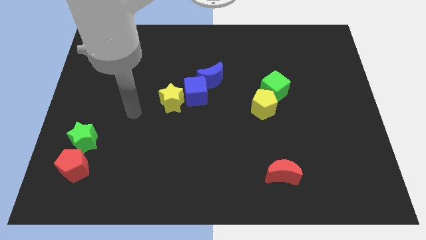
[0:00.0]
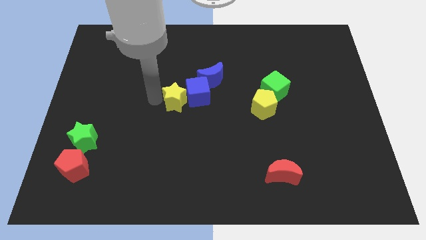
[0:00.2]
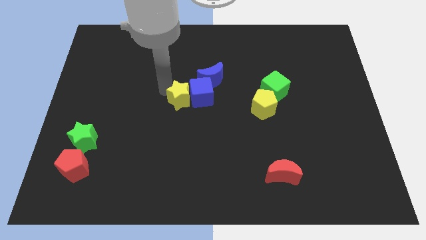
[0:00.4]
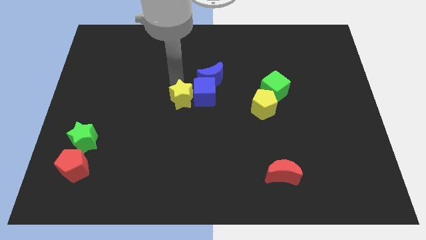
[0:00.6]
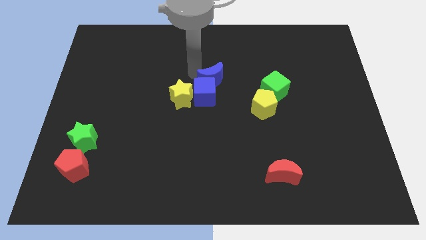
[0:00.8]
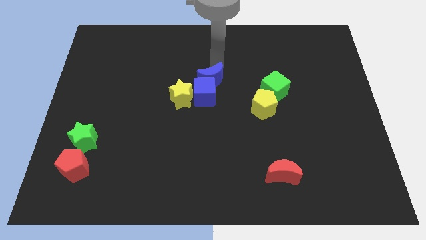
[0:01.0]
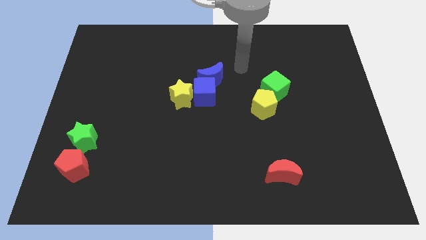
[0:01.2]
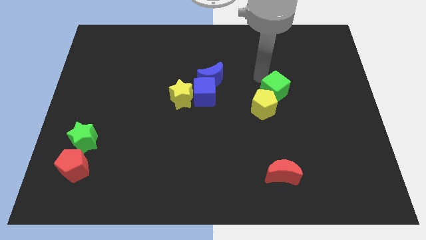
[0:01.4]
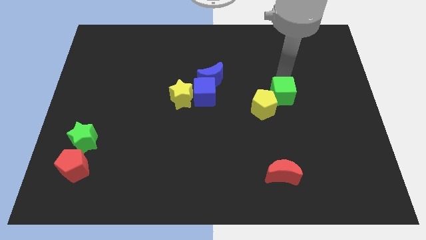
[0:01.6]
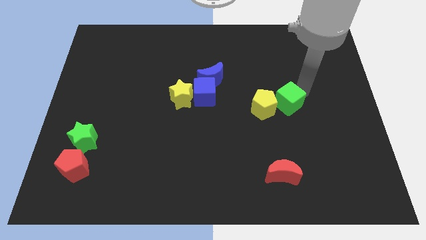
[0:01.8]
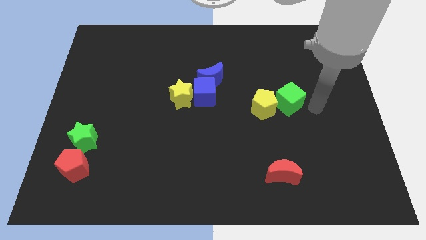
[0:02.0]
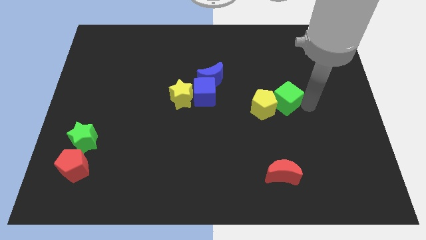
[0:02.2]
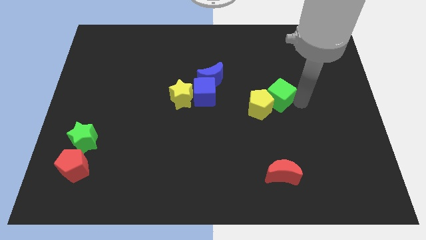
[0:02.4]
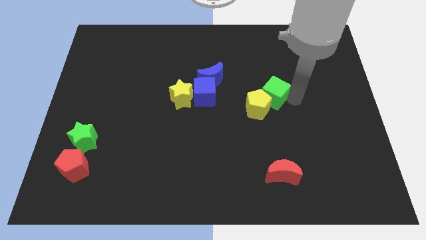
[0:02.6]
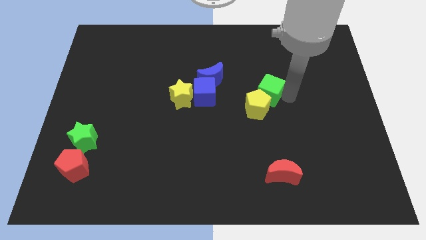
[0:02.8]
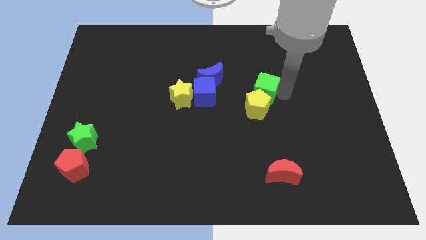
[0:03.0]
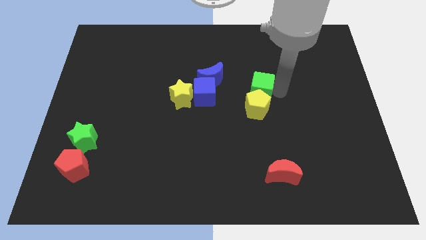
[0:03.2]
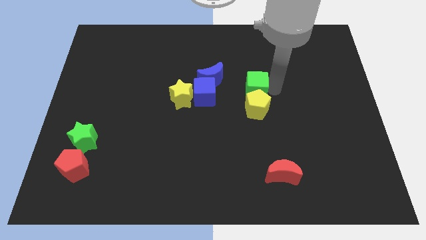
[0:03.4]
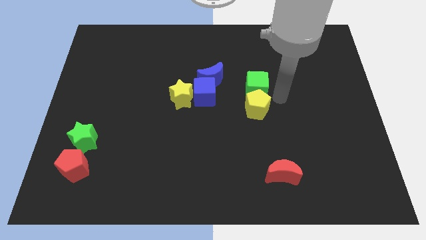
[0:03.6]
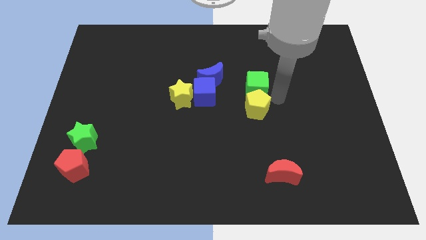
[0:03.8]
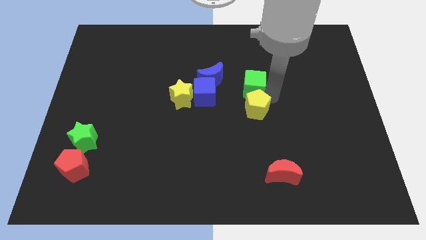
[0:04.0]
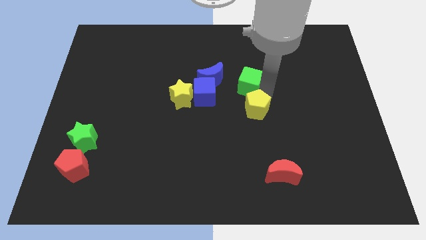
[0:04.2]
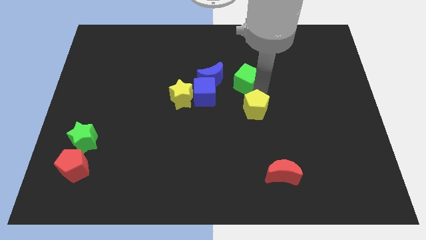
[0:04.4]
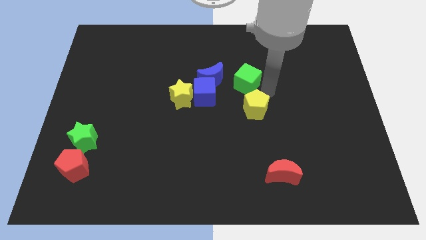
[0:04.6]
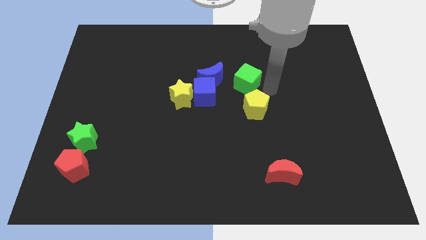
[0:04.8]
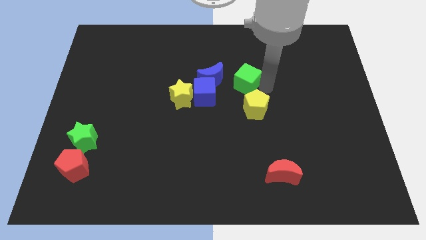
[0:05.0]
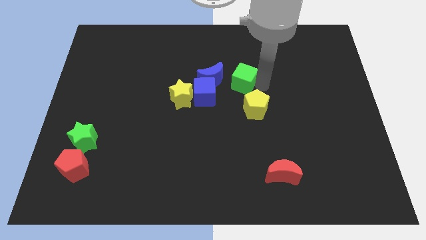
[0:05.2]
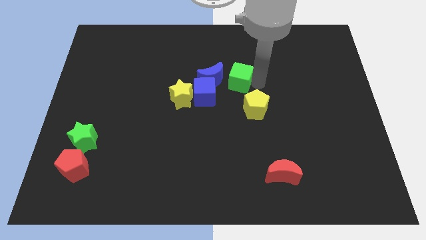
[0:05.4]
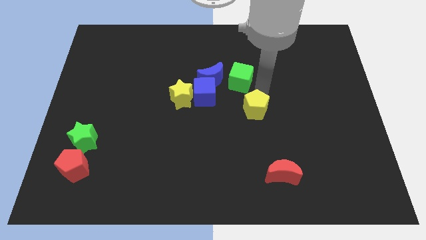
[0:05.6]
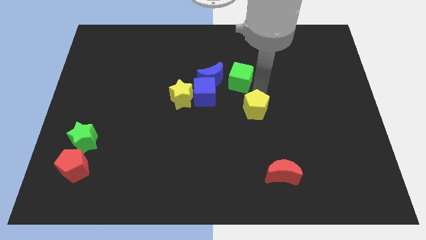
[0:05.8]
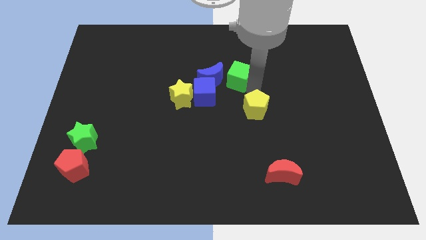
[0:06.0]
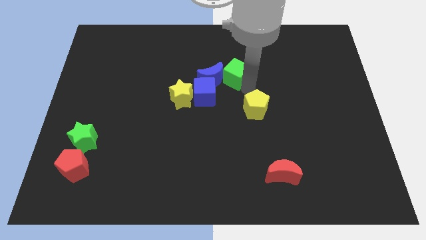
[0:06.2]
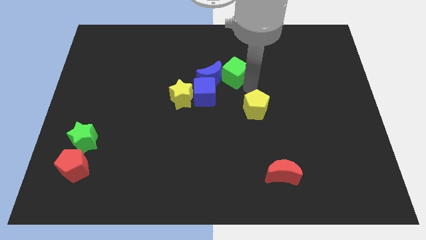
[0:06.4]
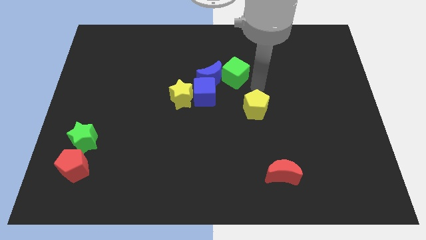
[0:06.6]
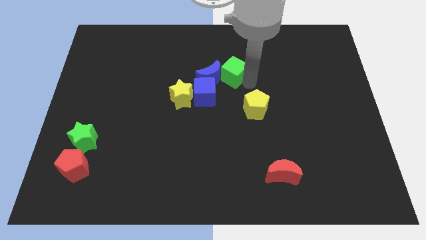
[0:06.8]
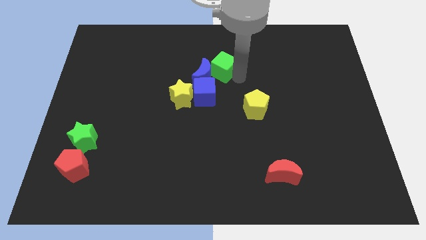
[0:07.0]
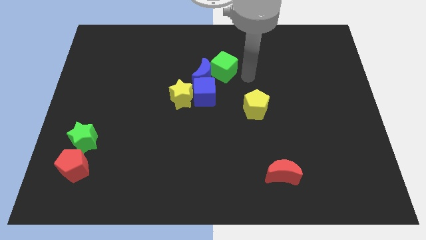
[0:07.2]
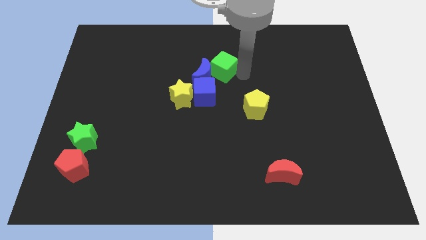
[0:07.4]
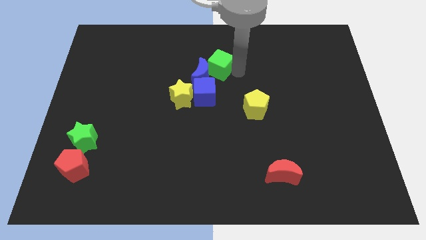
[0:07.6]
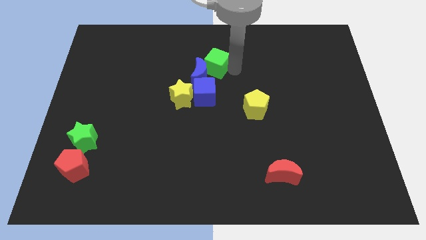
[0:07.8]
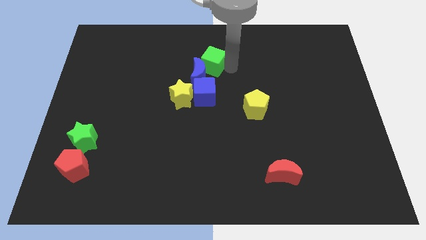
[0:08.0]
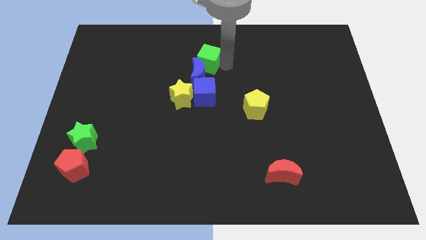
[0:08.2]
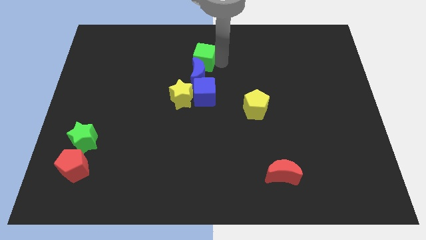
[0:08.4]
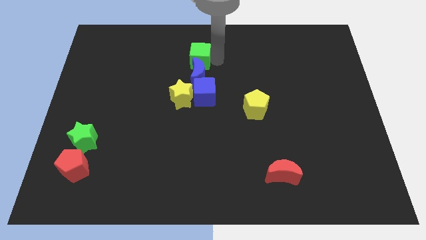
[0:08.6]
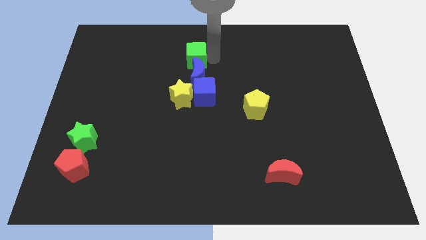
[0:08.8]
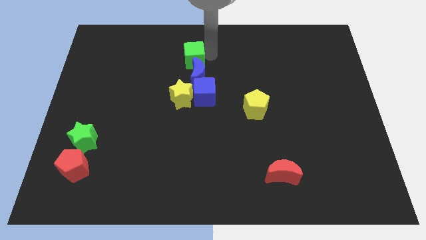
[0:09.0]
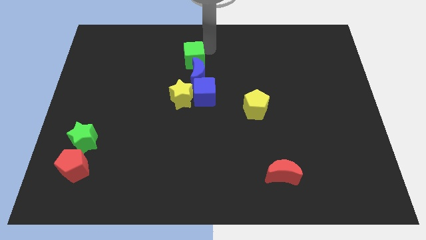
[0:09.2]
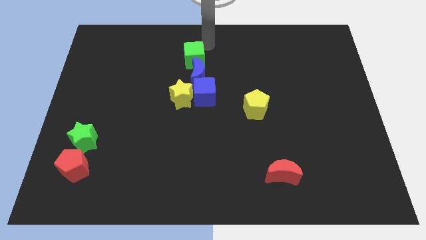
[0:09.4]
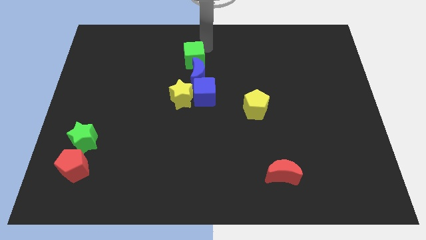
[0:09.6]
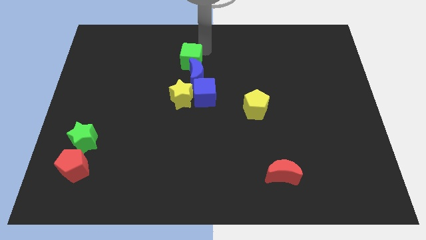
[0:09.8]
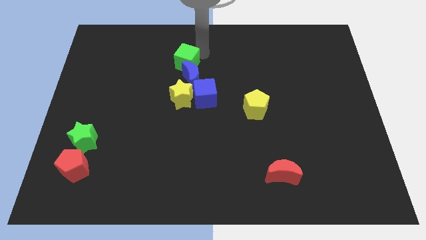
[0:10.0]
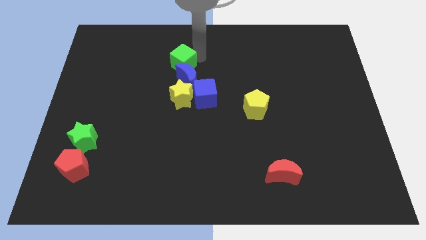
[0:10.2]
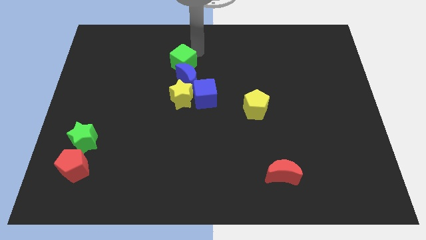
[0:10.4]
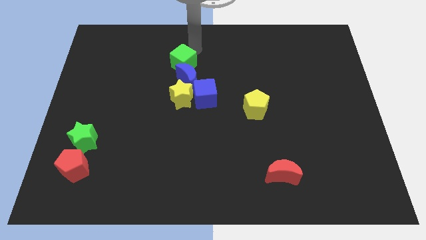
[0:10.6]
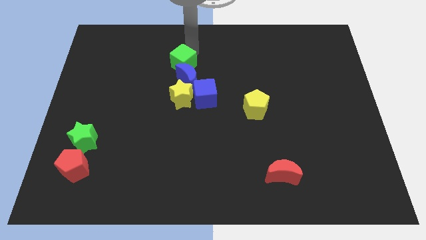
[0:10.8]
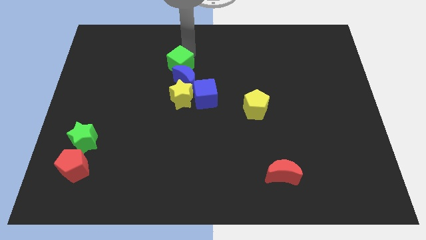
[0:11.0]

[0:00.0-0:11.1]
slide the green cube to the left

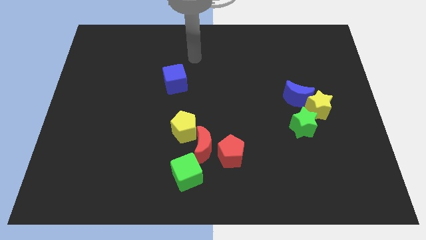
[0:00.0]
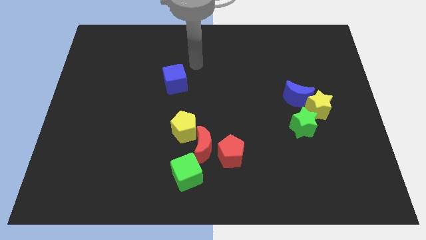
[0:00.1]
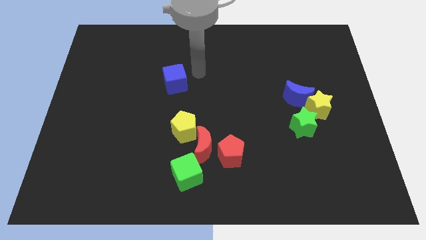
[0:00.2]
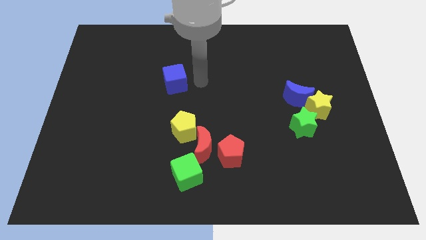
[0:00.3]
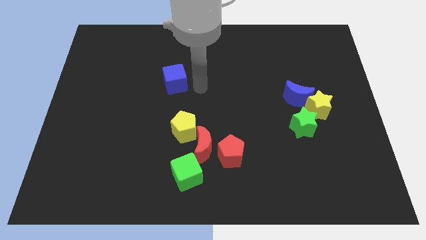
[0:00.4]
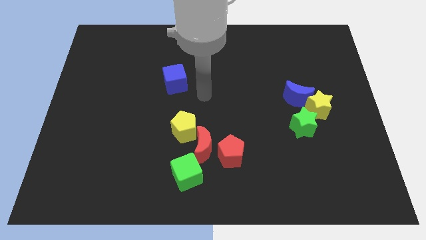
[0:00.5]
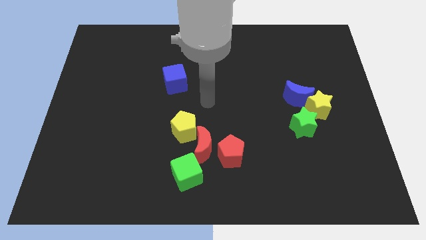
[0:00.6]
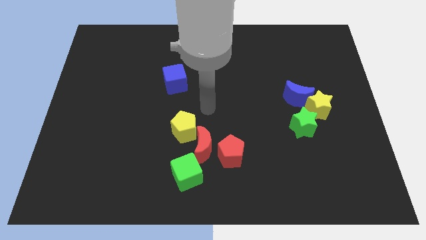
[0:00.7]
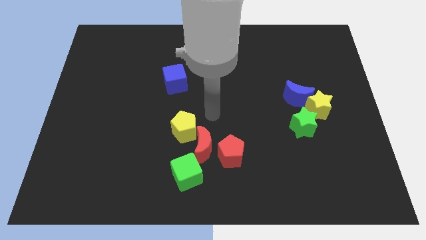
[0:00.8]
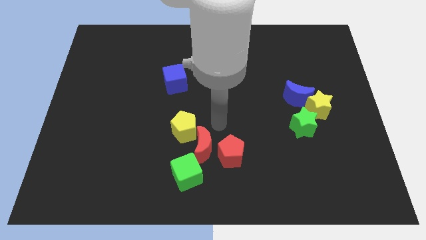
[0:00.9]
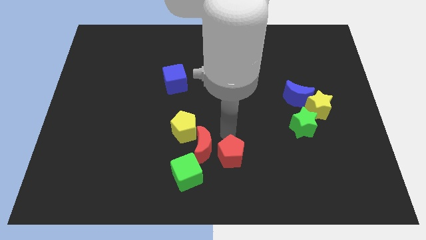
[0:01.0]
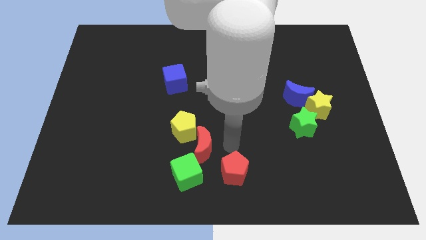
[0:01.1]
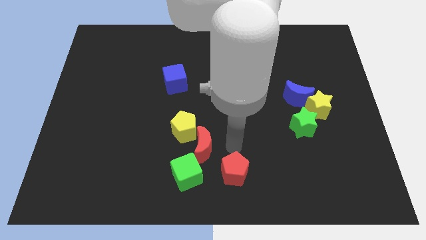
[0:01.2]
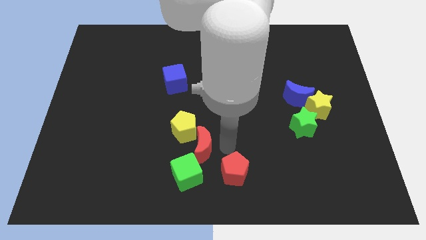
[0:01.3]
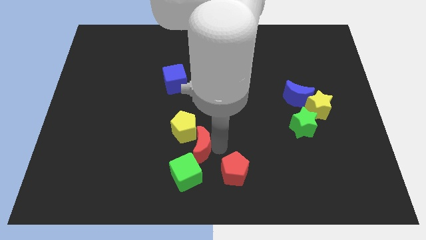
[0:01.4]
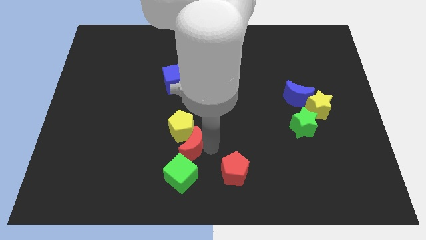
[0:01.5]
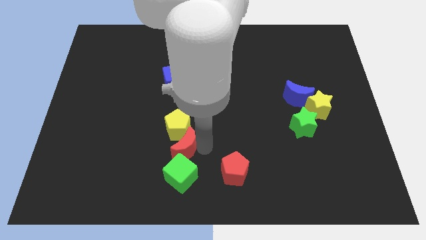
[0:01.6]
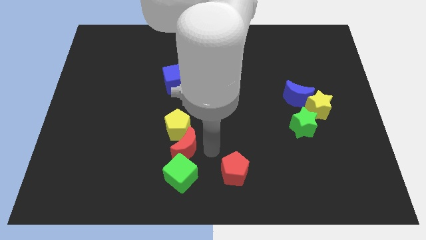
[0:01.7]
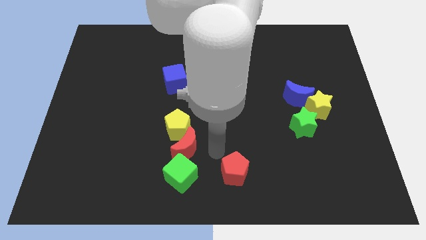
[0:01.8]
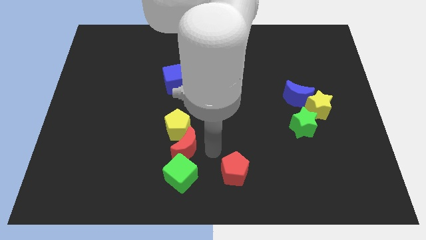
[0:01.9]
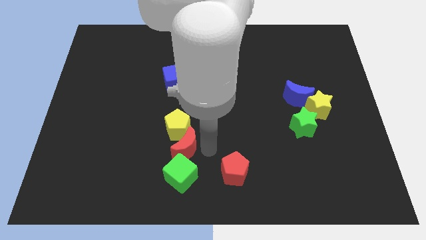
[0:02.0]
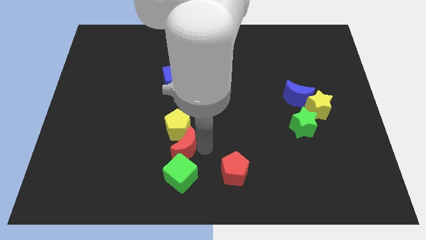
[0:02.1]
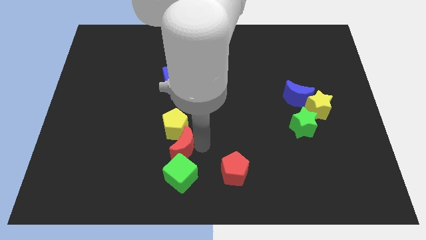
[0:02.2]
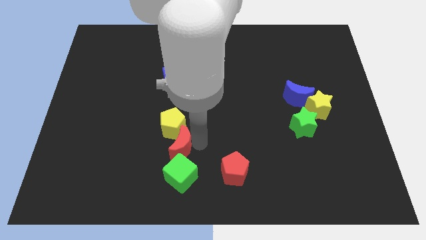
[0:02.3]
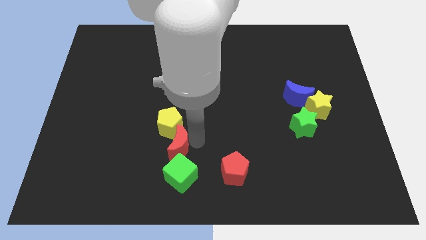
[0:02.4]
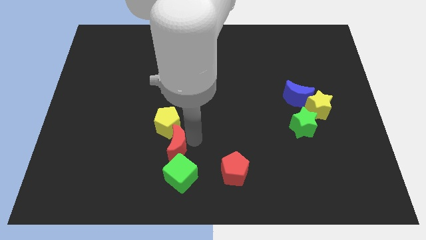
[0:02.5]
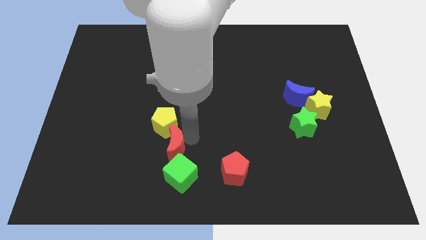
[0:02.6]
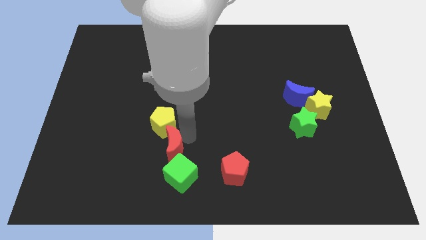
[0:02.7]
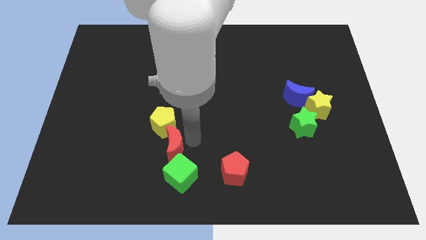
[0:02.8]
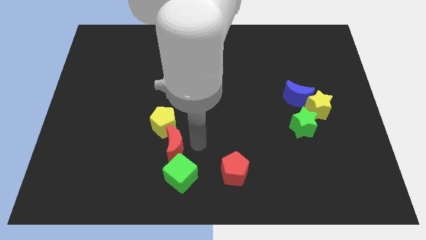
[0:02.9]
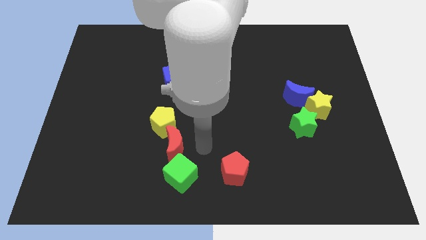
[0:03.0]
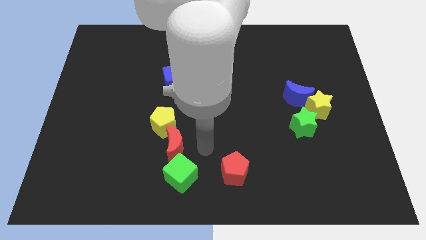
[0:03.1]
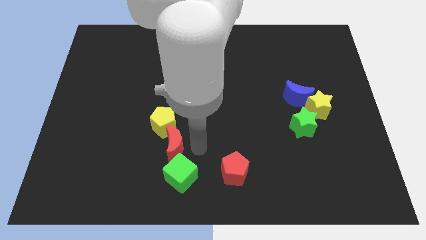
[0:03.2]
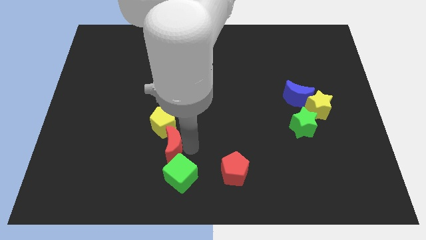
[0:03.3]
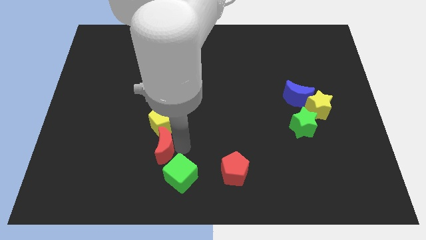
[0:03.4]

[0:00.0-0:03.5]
slightly move the red moon to the left
